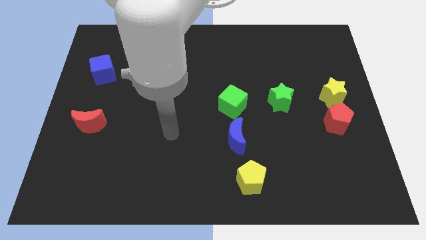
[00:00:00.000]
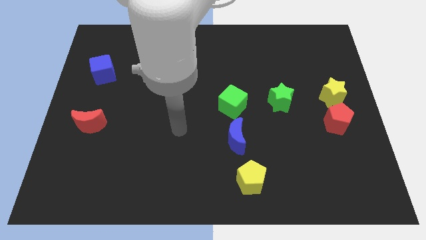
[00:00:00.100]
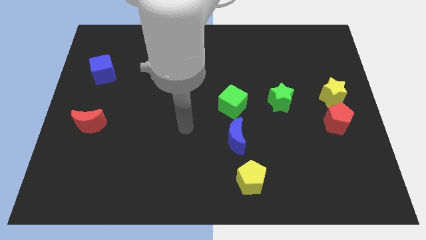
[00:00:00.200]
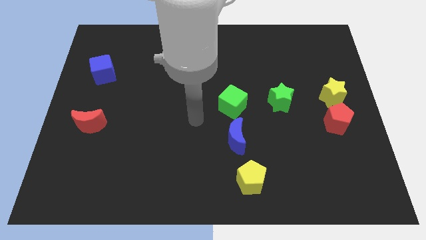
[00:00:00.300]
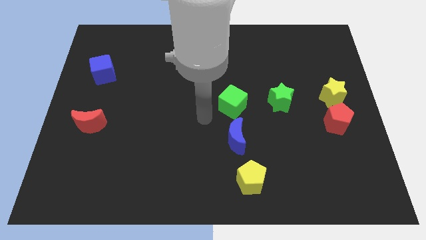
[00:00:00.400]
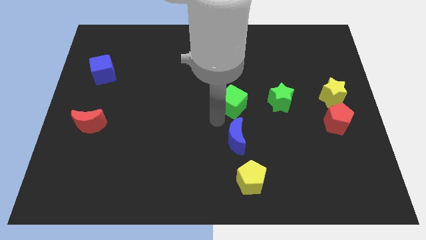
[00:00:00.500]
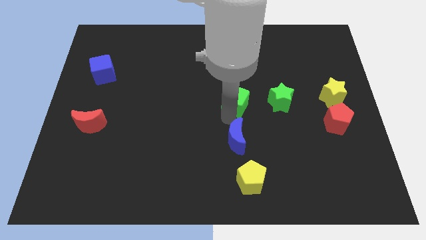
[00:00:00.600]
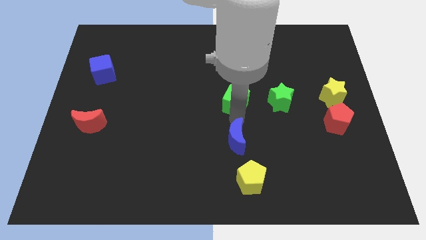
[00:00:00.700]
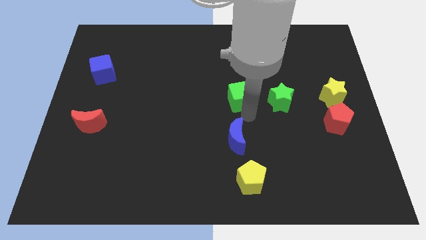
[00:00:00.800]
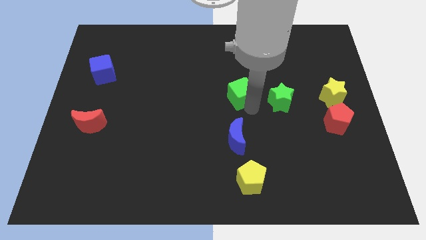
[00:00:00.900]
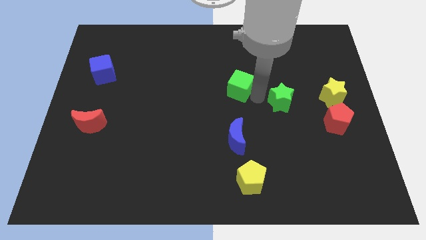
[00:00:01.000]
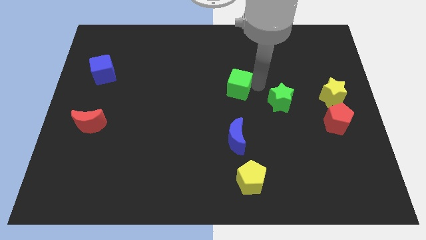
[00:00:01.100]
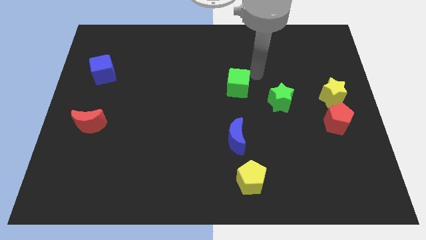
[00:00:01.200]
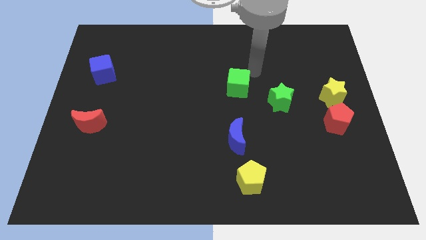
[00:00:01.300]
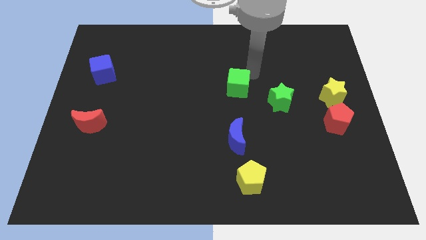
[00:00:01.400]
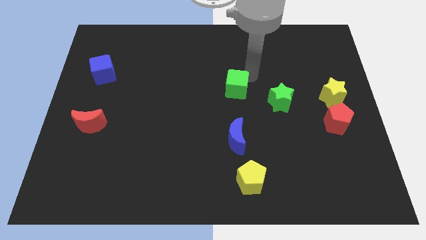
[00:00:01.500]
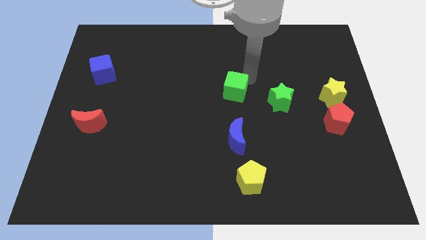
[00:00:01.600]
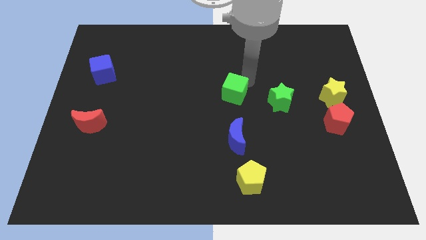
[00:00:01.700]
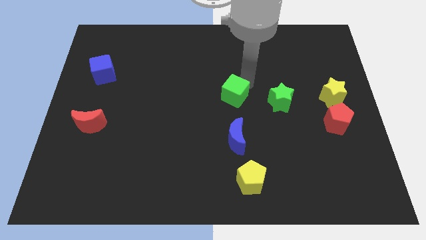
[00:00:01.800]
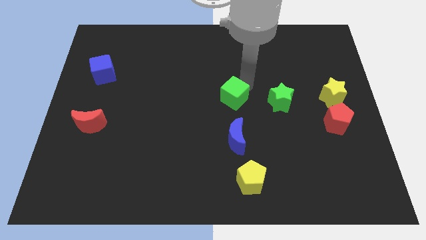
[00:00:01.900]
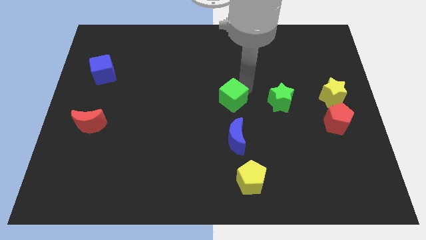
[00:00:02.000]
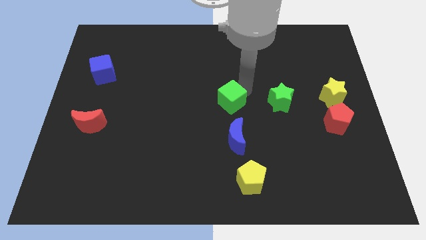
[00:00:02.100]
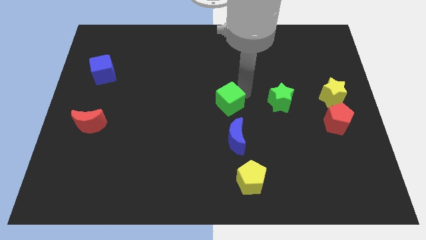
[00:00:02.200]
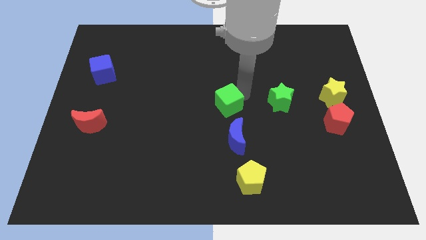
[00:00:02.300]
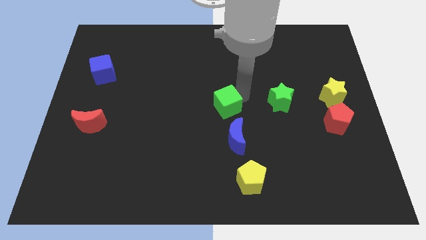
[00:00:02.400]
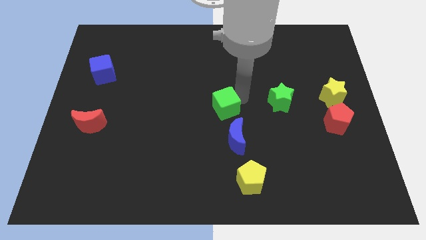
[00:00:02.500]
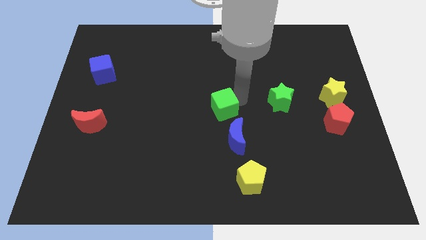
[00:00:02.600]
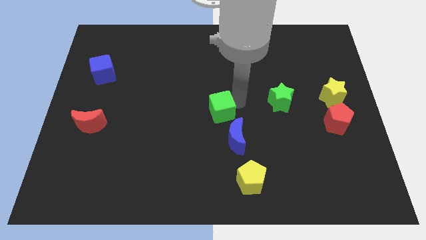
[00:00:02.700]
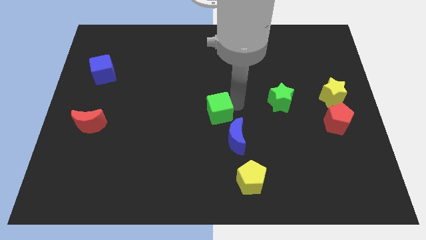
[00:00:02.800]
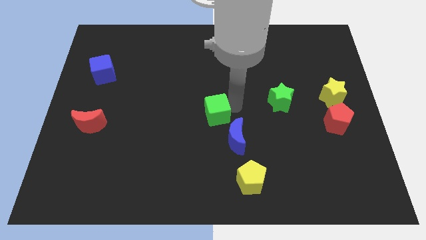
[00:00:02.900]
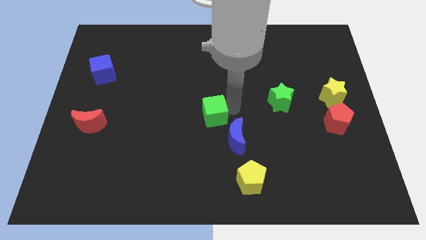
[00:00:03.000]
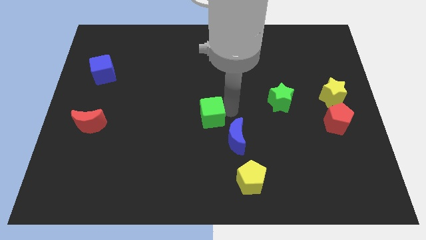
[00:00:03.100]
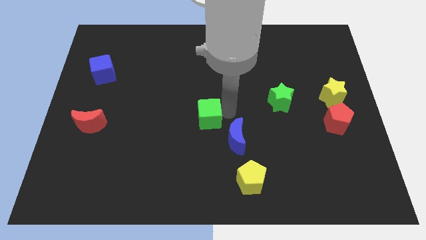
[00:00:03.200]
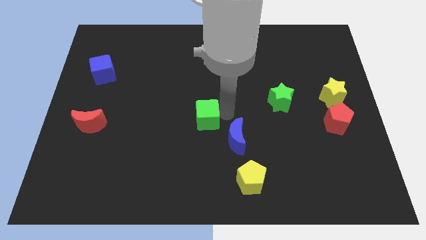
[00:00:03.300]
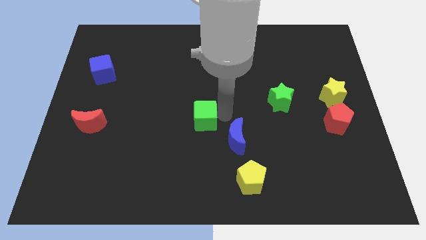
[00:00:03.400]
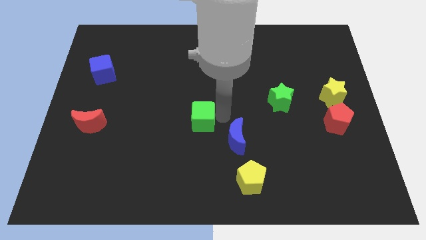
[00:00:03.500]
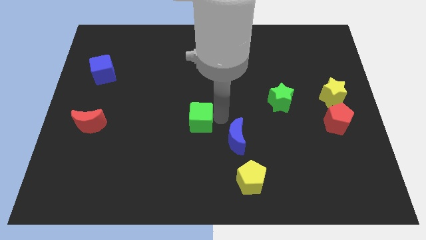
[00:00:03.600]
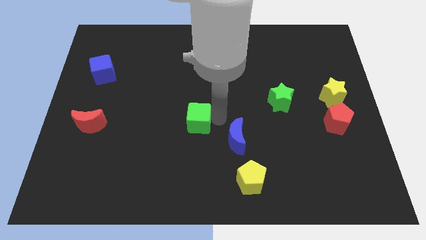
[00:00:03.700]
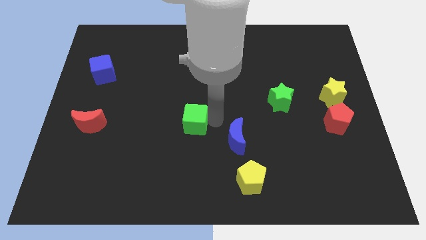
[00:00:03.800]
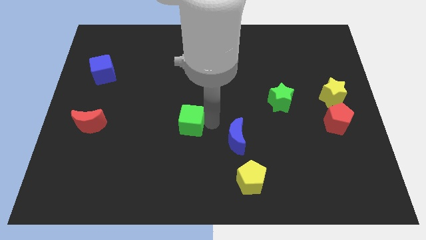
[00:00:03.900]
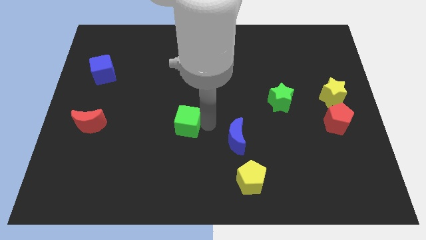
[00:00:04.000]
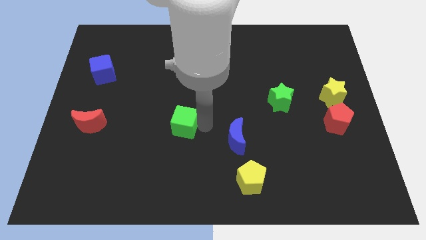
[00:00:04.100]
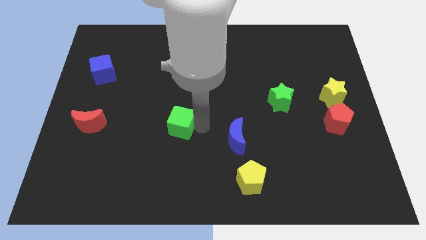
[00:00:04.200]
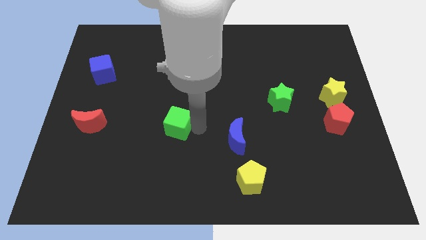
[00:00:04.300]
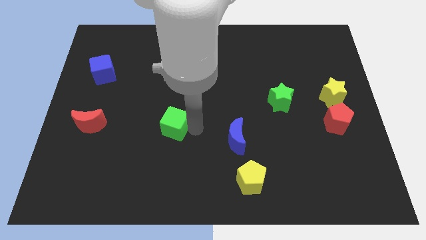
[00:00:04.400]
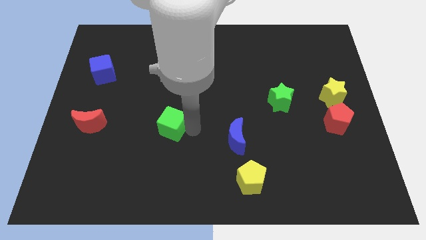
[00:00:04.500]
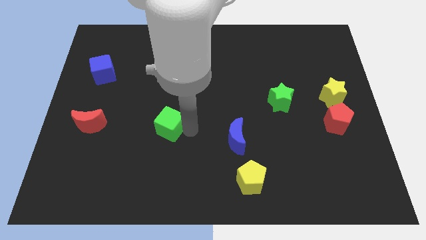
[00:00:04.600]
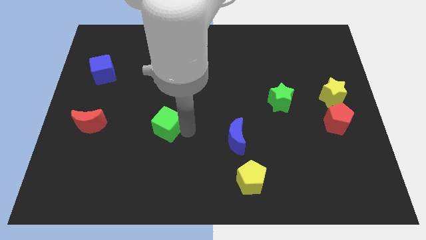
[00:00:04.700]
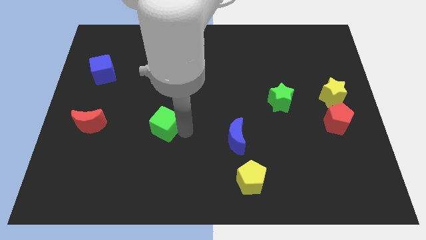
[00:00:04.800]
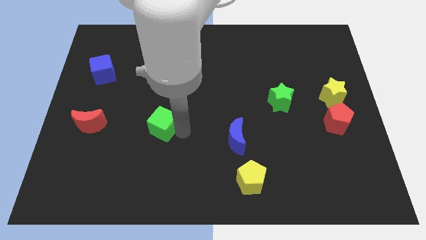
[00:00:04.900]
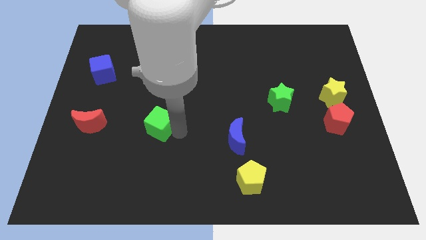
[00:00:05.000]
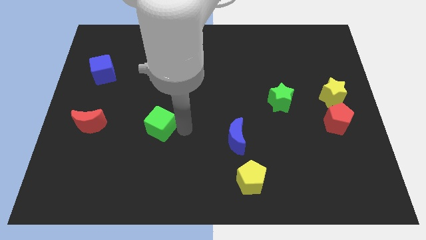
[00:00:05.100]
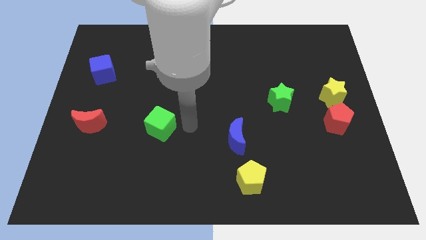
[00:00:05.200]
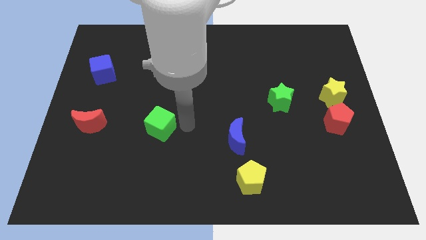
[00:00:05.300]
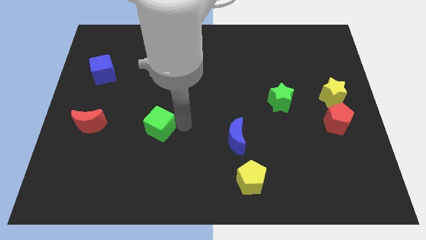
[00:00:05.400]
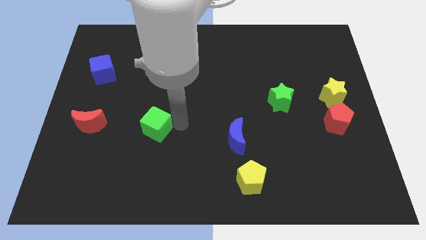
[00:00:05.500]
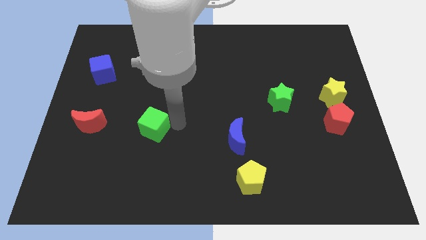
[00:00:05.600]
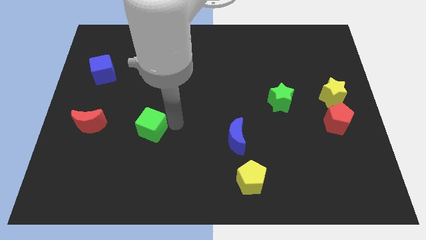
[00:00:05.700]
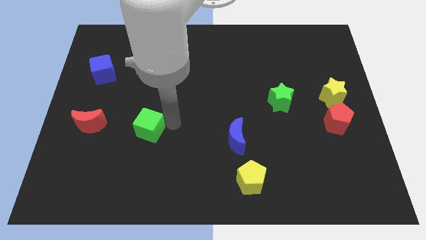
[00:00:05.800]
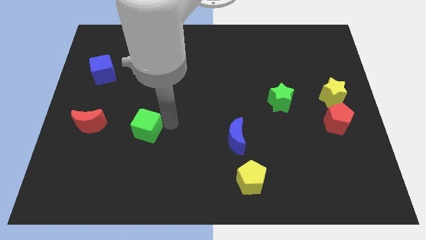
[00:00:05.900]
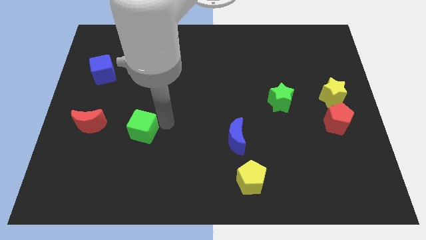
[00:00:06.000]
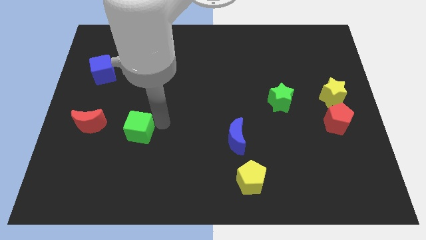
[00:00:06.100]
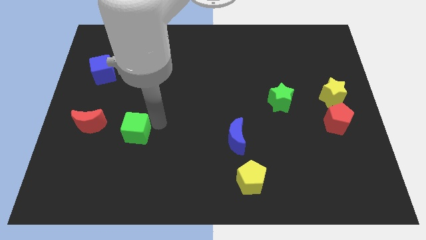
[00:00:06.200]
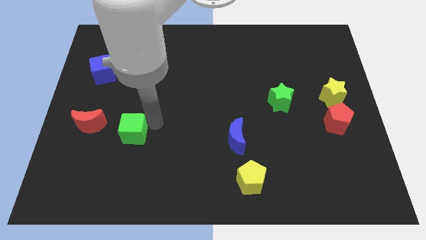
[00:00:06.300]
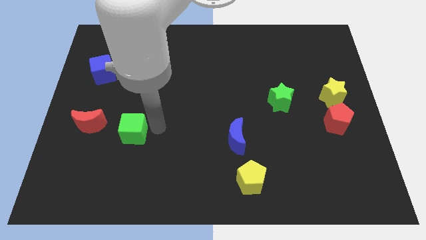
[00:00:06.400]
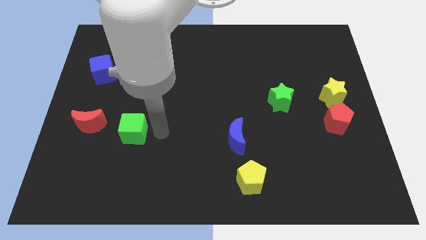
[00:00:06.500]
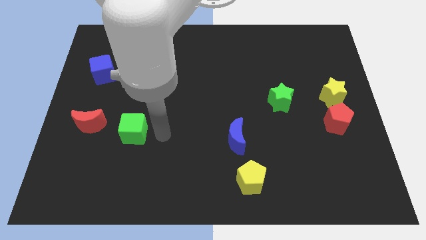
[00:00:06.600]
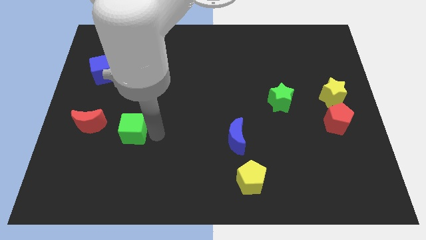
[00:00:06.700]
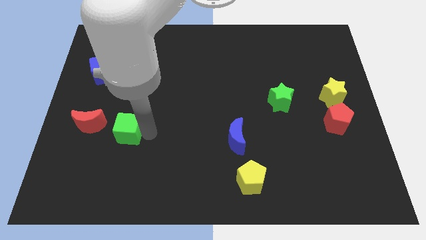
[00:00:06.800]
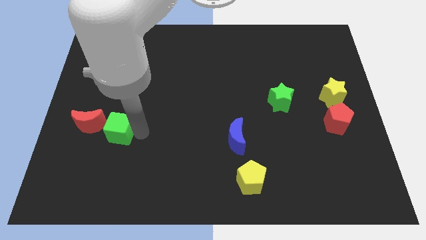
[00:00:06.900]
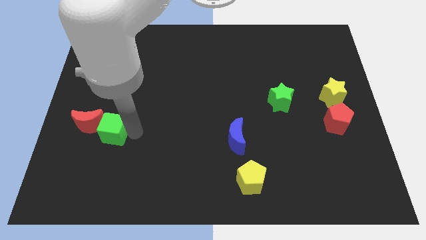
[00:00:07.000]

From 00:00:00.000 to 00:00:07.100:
slide the green cube next to the red moon

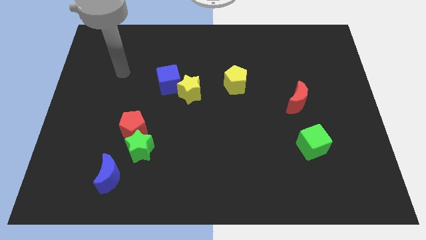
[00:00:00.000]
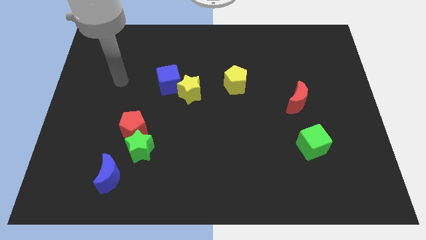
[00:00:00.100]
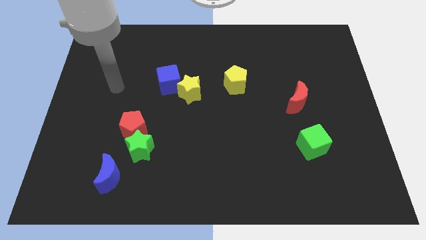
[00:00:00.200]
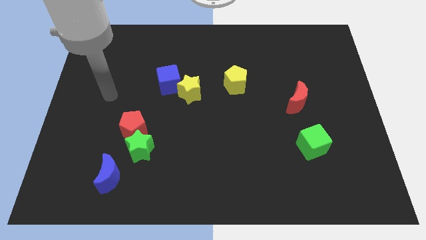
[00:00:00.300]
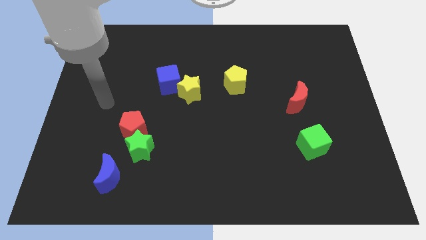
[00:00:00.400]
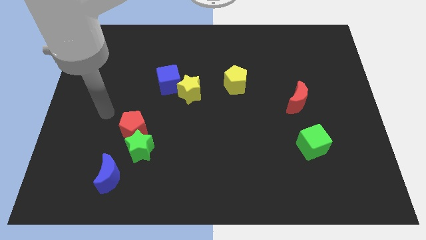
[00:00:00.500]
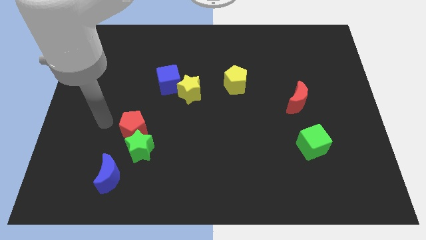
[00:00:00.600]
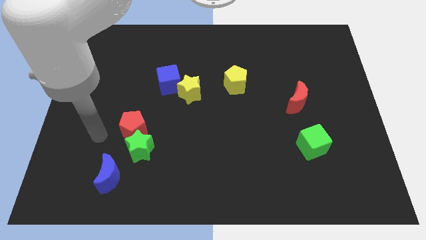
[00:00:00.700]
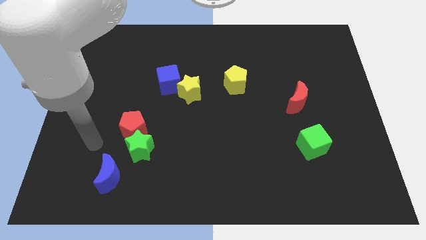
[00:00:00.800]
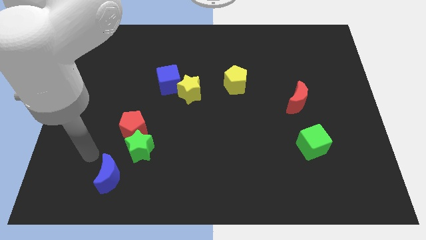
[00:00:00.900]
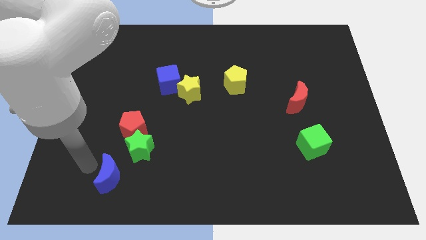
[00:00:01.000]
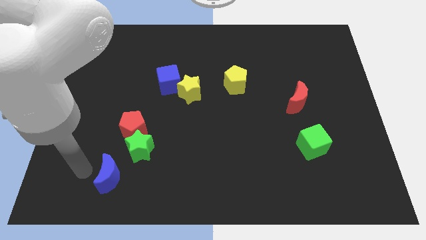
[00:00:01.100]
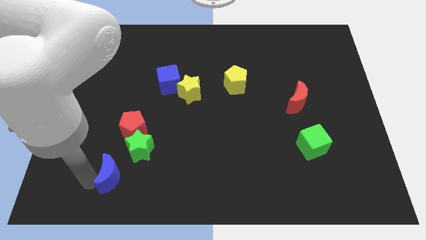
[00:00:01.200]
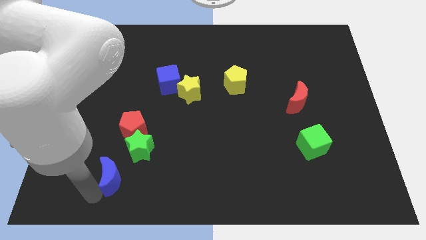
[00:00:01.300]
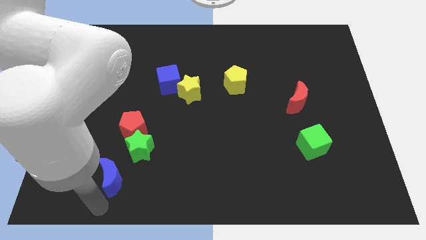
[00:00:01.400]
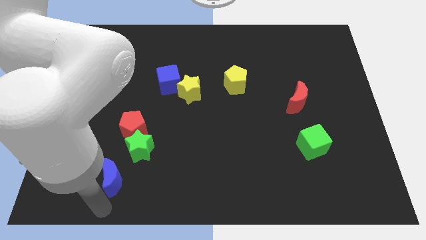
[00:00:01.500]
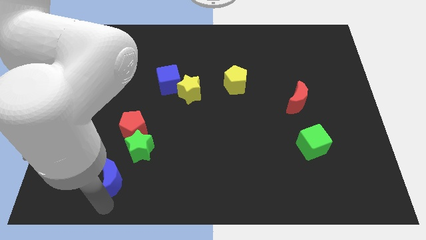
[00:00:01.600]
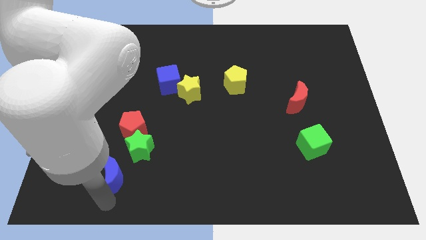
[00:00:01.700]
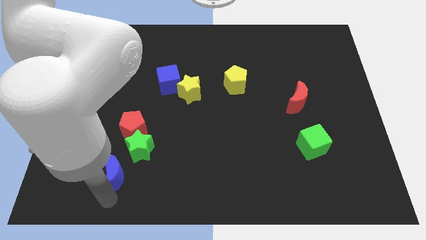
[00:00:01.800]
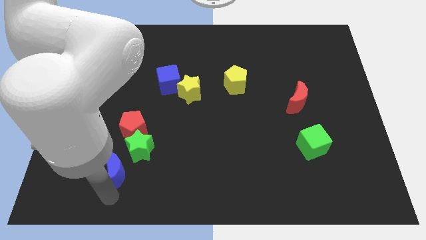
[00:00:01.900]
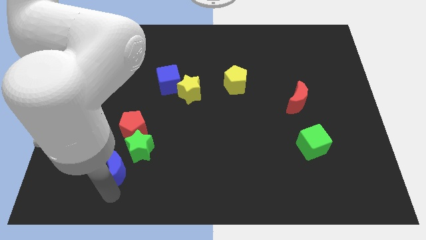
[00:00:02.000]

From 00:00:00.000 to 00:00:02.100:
slide the blue moon towards the green star
